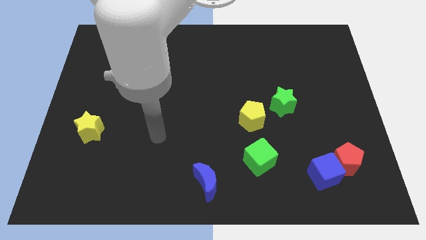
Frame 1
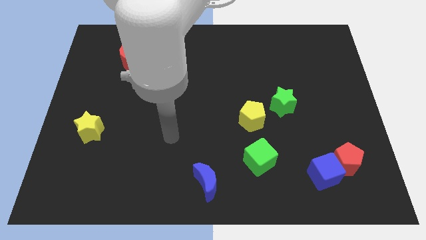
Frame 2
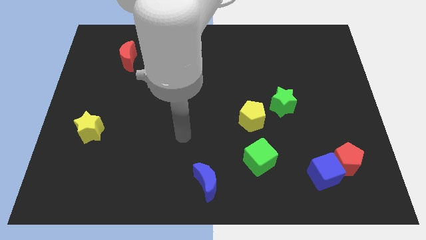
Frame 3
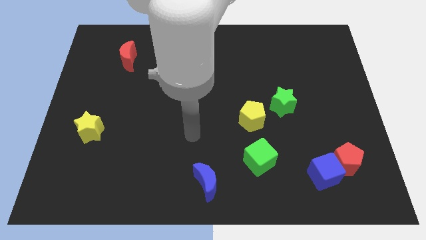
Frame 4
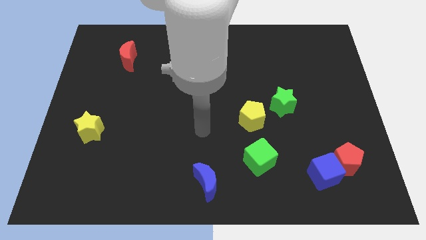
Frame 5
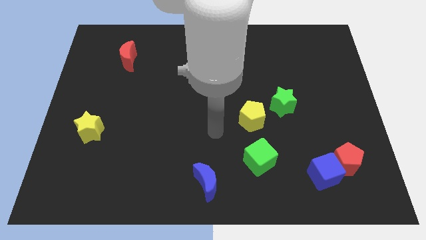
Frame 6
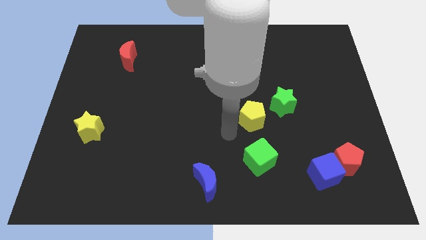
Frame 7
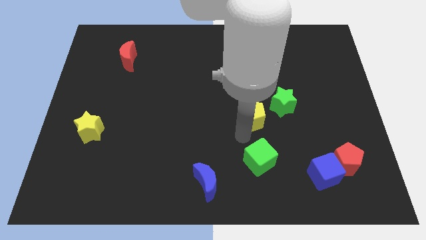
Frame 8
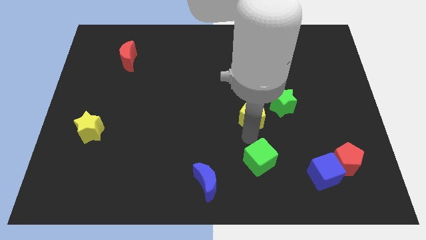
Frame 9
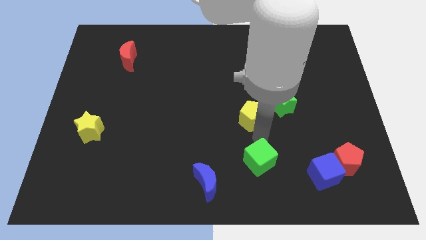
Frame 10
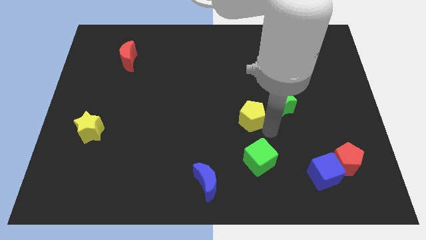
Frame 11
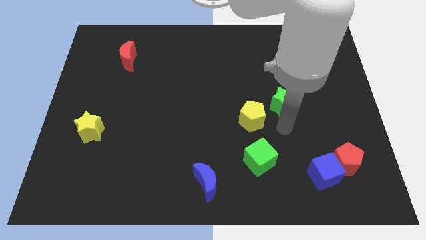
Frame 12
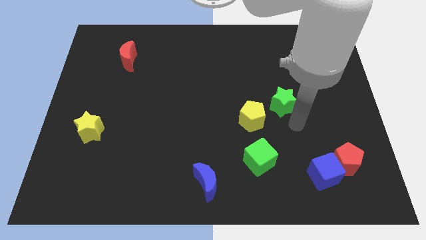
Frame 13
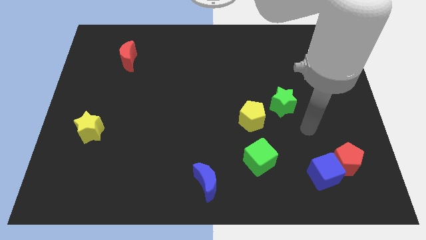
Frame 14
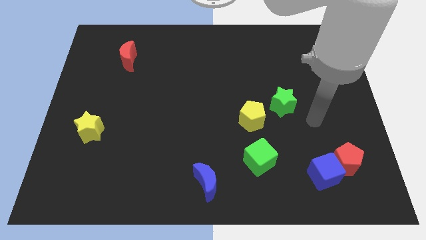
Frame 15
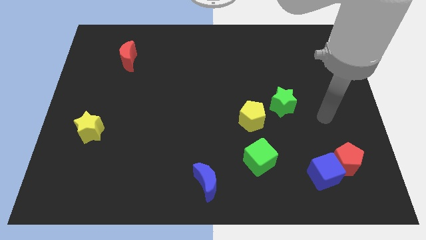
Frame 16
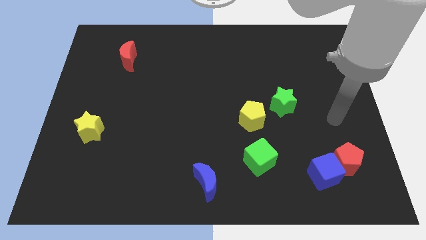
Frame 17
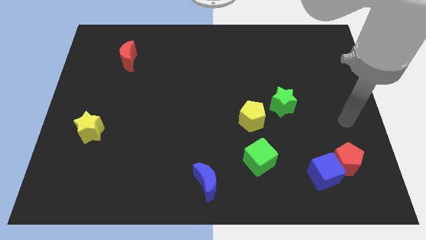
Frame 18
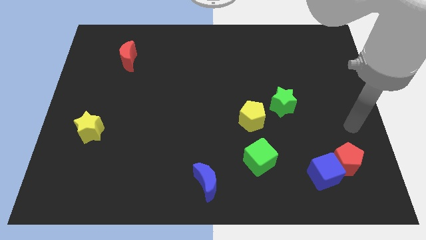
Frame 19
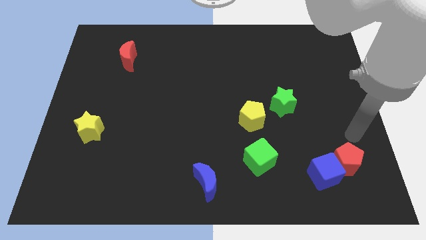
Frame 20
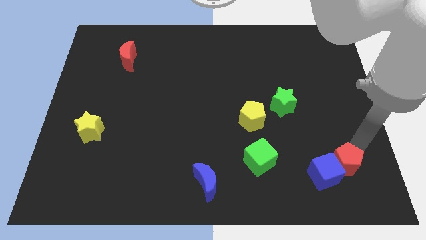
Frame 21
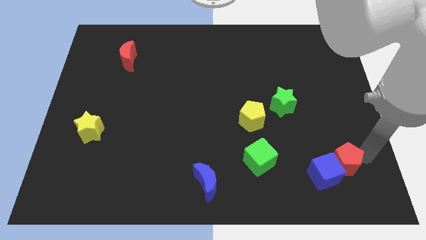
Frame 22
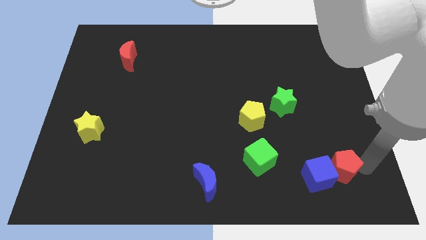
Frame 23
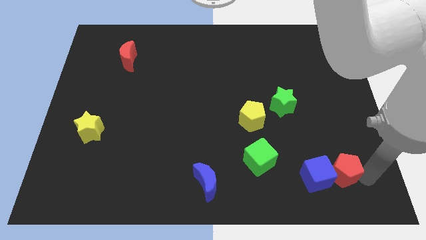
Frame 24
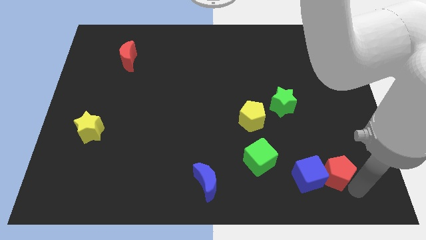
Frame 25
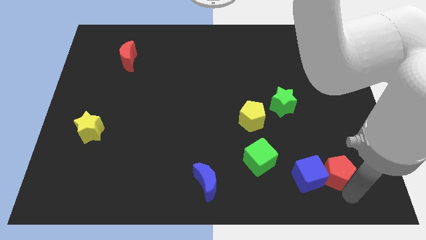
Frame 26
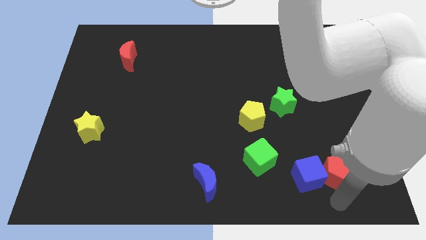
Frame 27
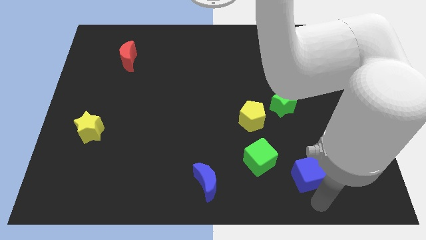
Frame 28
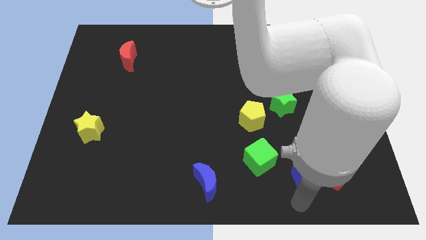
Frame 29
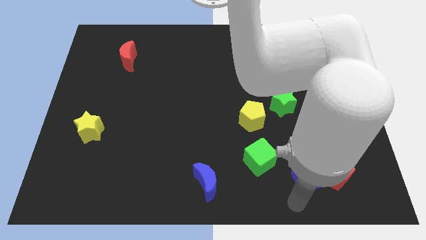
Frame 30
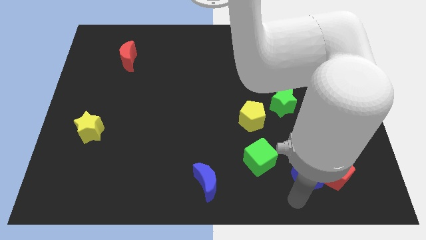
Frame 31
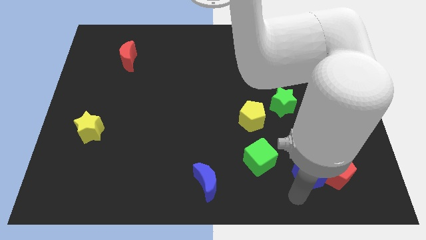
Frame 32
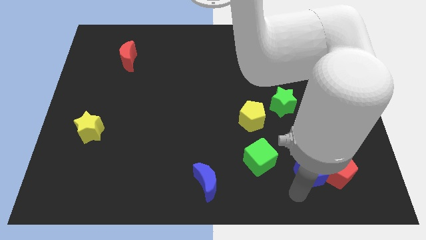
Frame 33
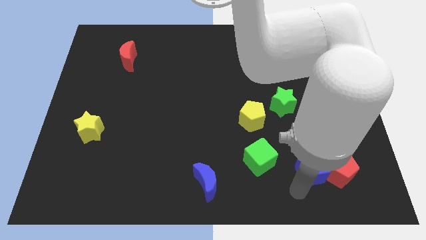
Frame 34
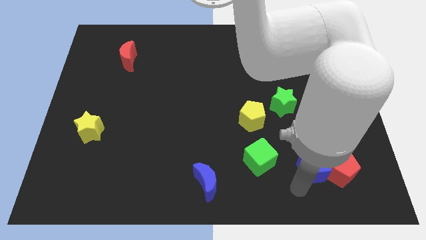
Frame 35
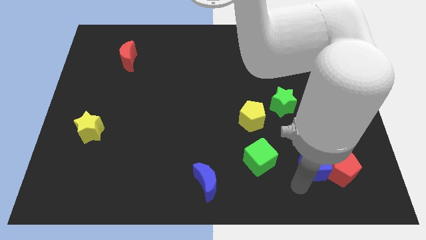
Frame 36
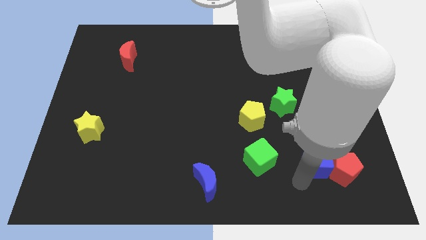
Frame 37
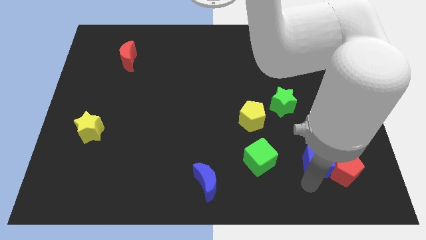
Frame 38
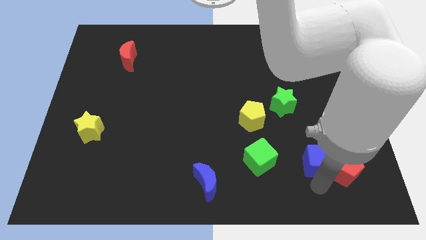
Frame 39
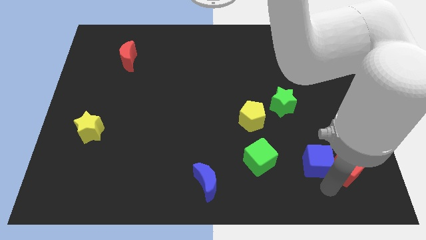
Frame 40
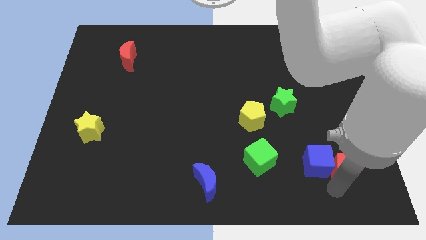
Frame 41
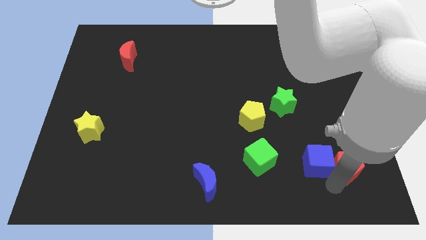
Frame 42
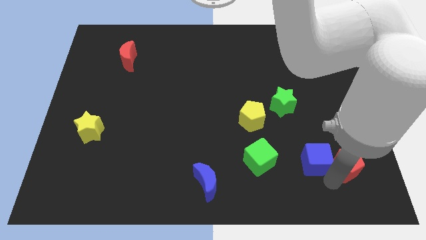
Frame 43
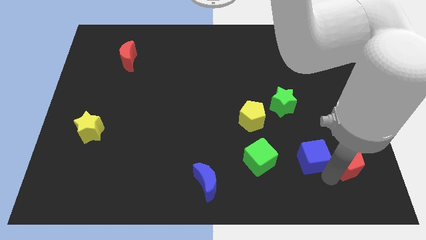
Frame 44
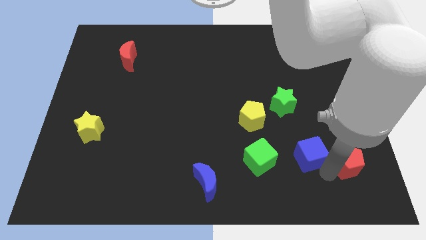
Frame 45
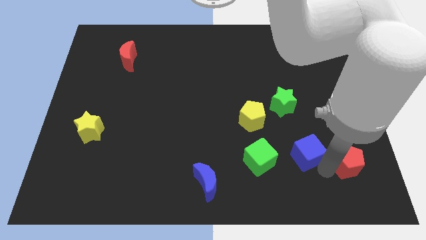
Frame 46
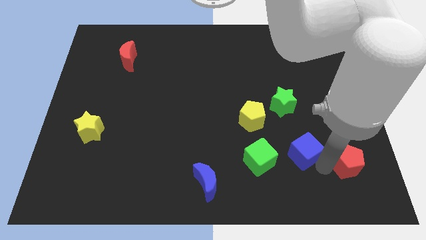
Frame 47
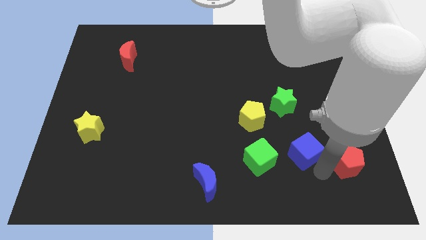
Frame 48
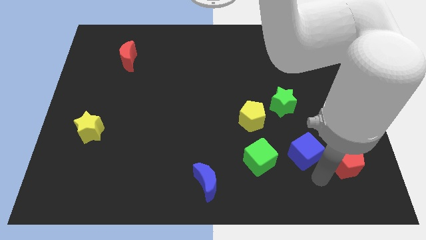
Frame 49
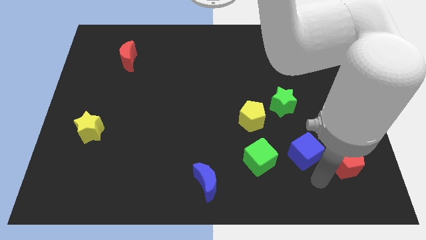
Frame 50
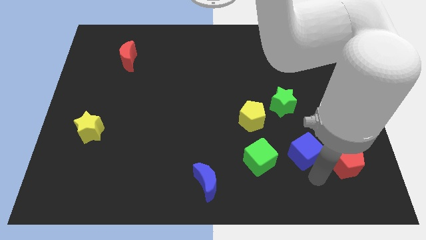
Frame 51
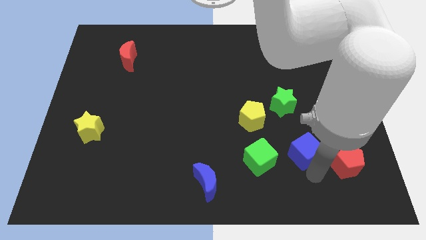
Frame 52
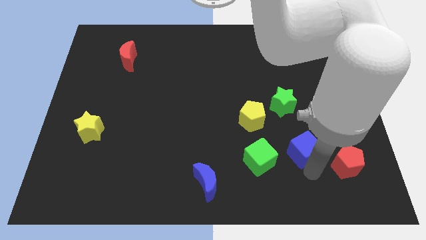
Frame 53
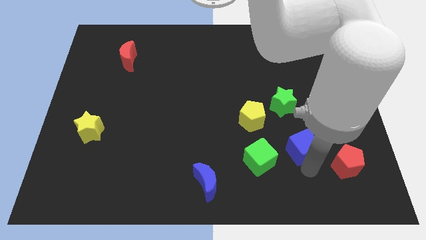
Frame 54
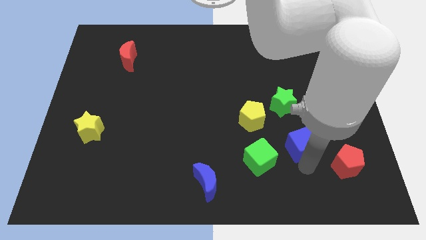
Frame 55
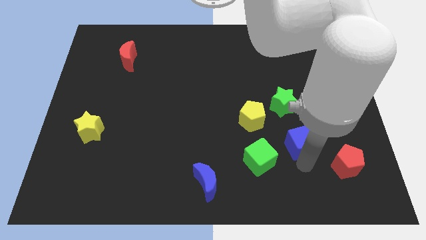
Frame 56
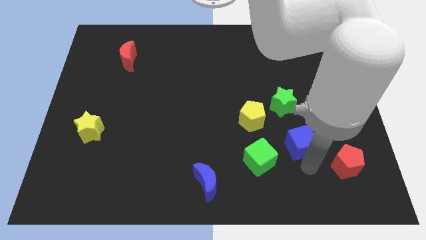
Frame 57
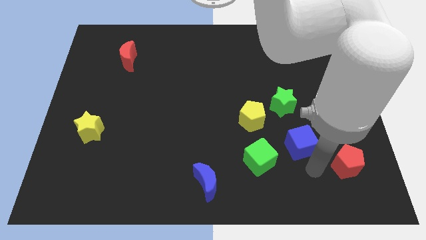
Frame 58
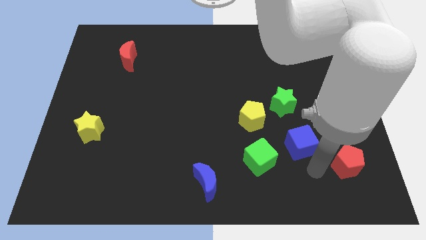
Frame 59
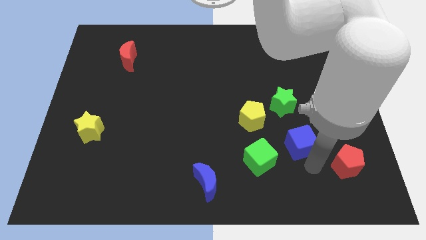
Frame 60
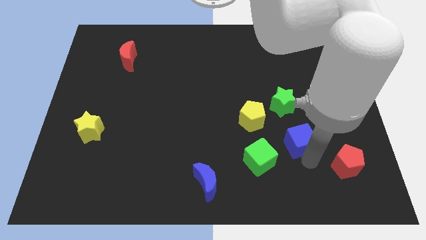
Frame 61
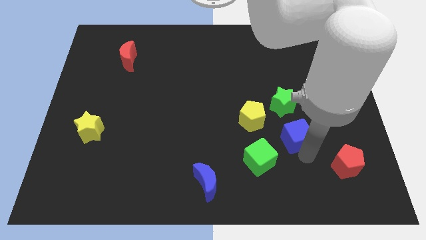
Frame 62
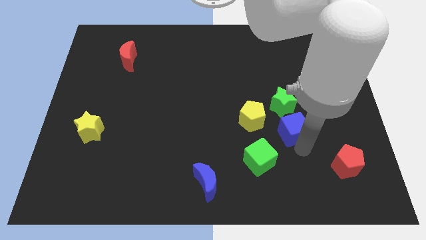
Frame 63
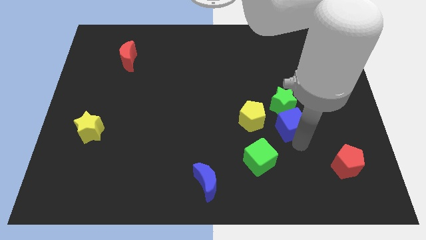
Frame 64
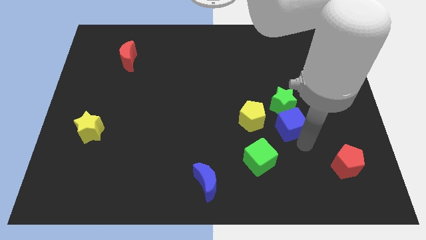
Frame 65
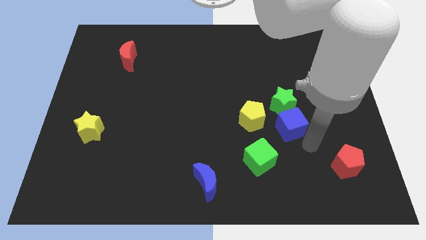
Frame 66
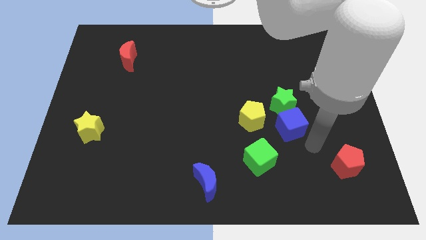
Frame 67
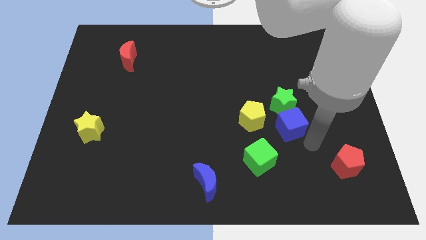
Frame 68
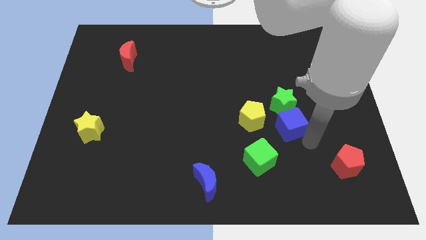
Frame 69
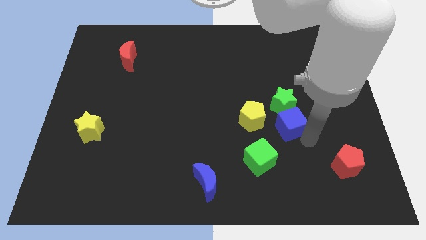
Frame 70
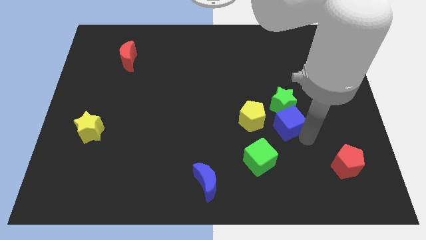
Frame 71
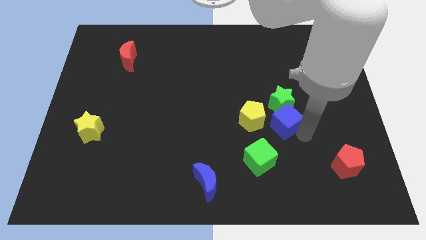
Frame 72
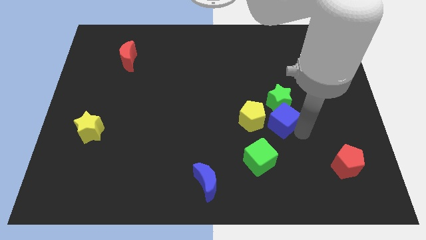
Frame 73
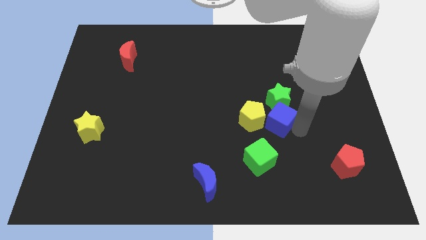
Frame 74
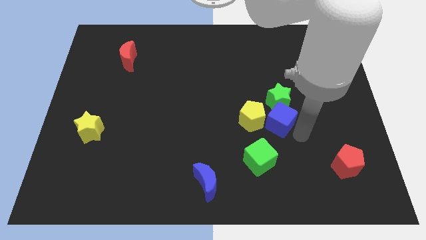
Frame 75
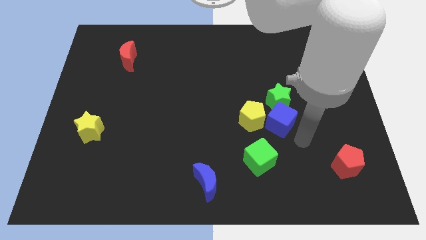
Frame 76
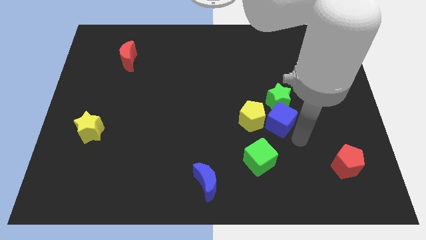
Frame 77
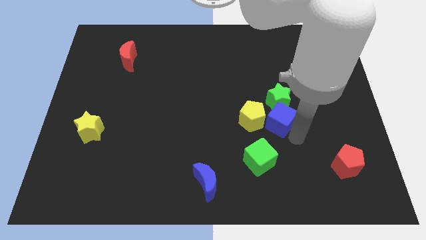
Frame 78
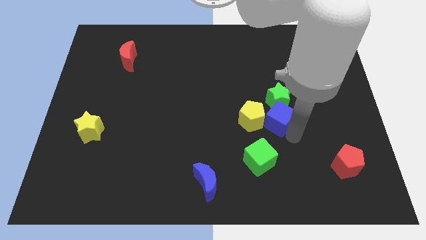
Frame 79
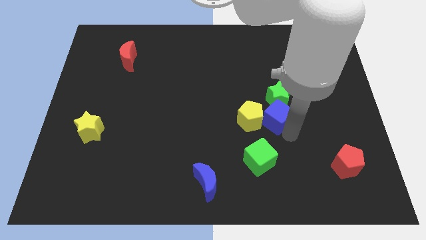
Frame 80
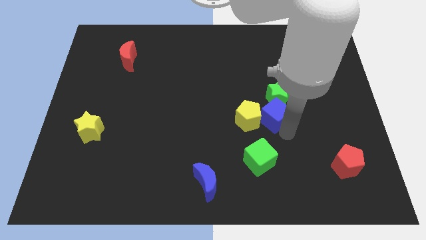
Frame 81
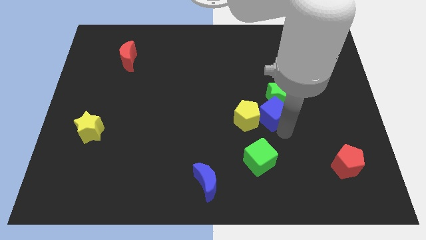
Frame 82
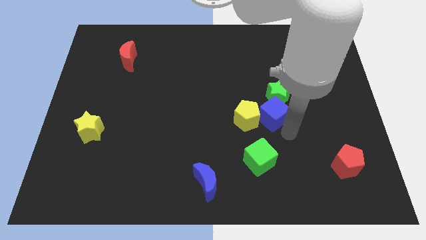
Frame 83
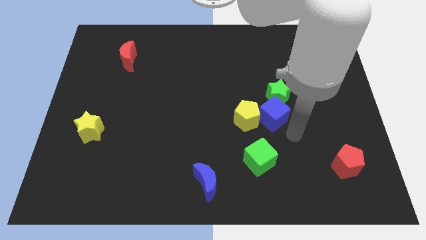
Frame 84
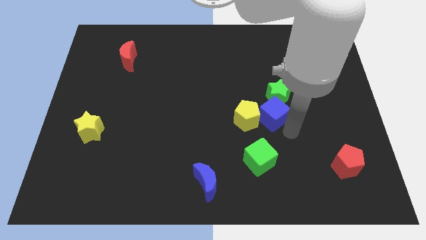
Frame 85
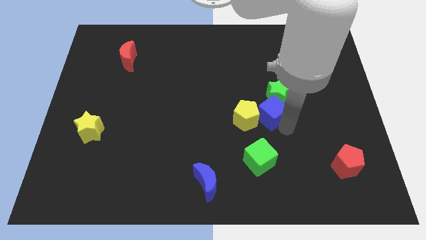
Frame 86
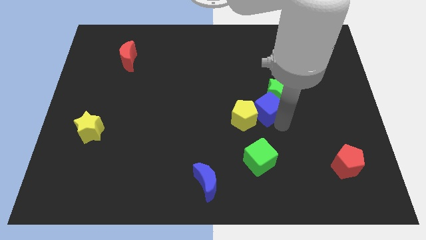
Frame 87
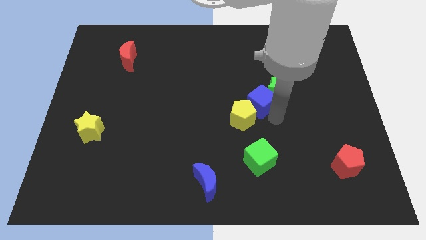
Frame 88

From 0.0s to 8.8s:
push the blue cube up and to the left
